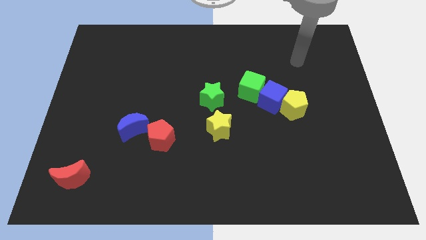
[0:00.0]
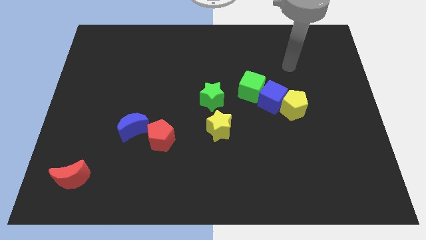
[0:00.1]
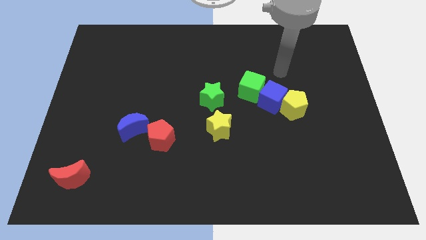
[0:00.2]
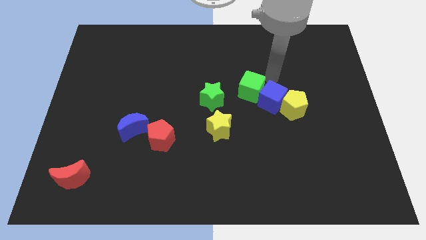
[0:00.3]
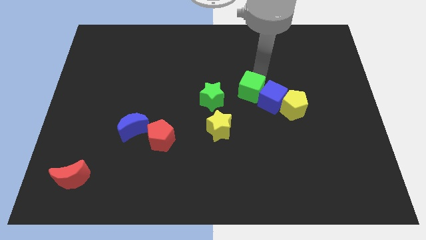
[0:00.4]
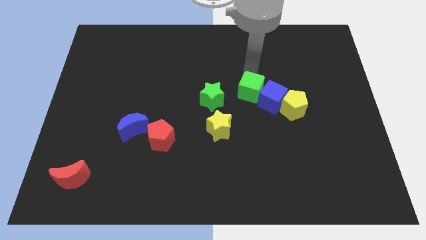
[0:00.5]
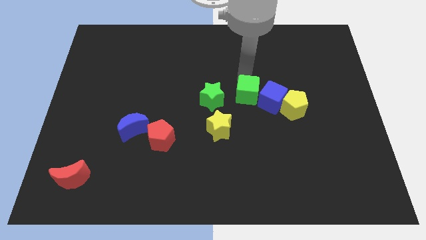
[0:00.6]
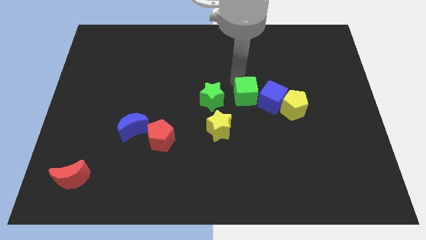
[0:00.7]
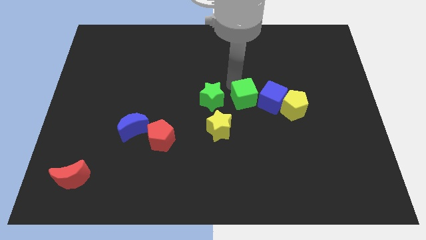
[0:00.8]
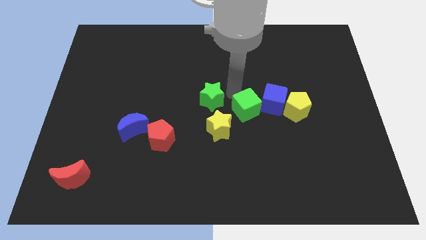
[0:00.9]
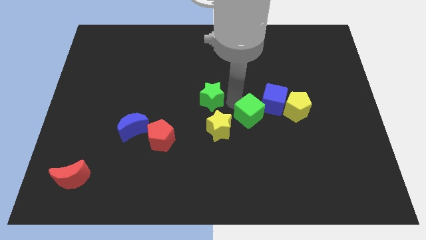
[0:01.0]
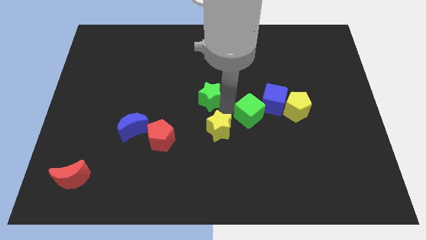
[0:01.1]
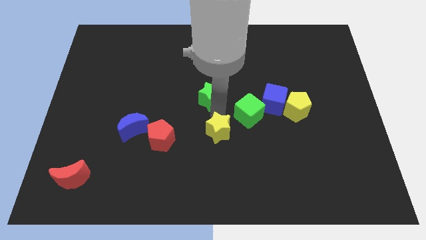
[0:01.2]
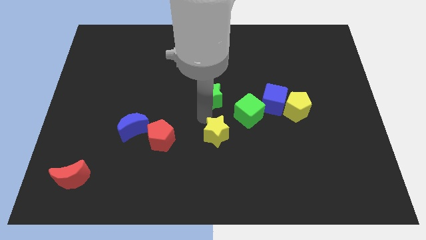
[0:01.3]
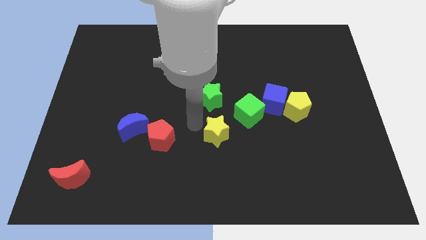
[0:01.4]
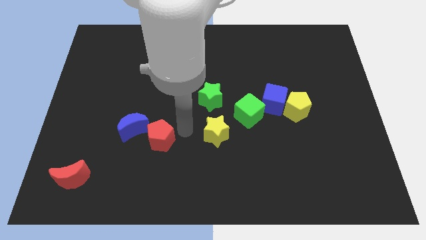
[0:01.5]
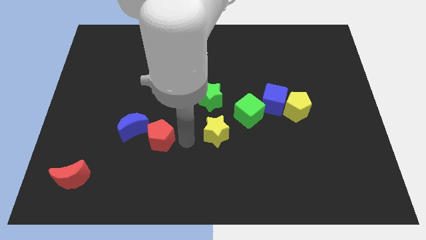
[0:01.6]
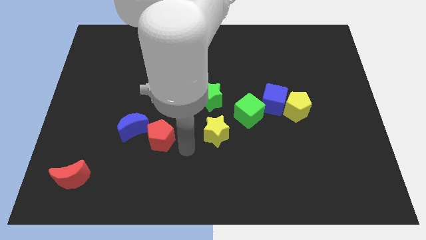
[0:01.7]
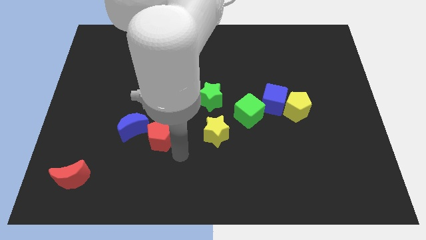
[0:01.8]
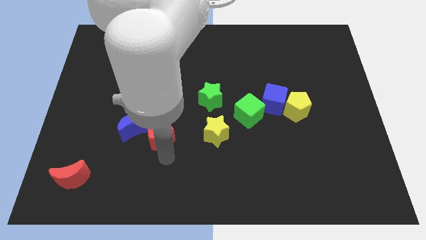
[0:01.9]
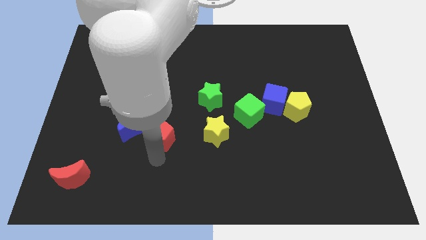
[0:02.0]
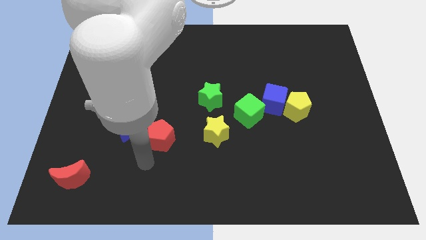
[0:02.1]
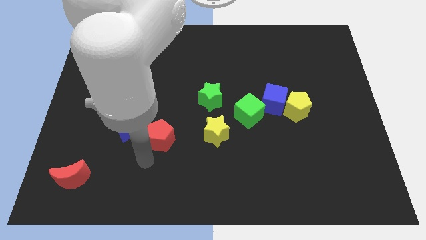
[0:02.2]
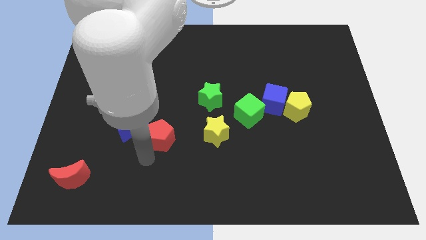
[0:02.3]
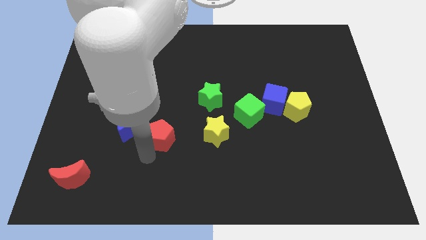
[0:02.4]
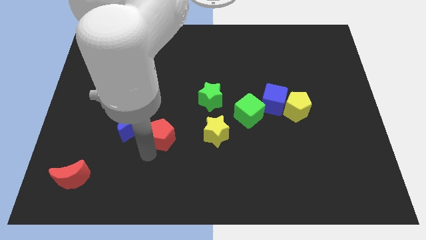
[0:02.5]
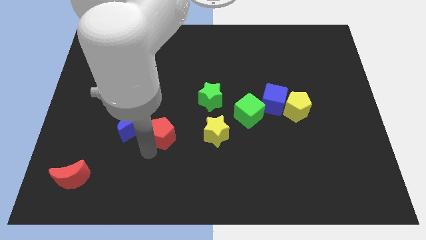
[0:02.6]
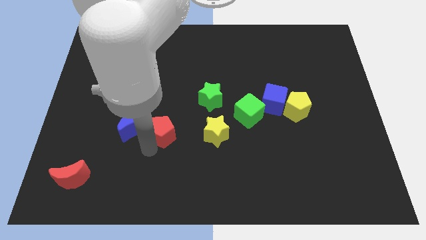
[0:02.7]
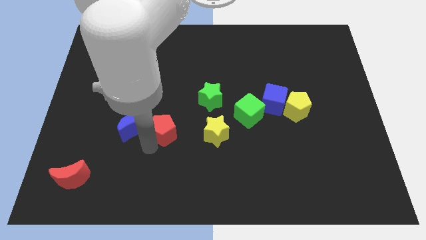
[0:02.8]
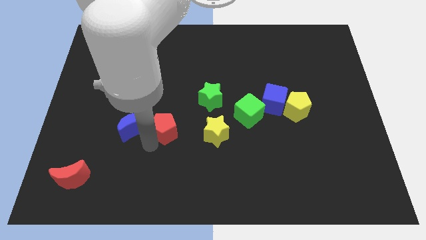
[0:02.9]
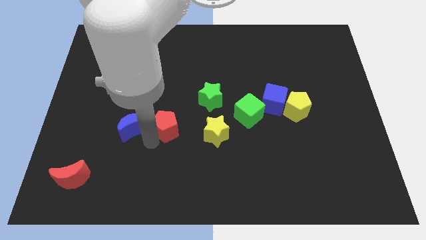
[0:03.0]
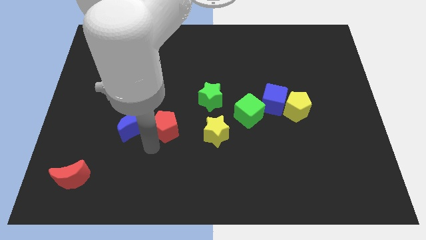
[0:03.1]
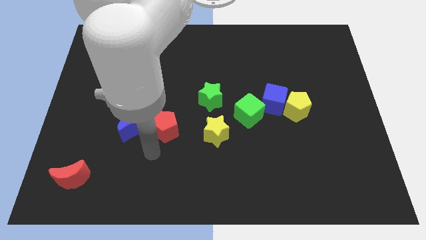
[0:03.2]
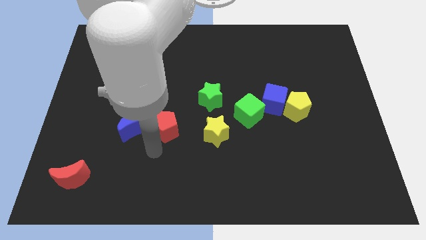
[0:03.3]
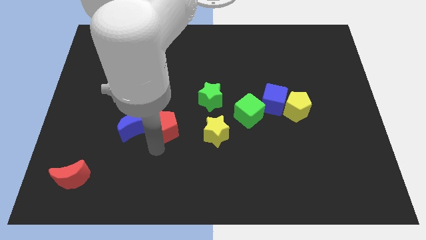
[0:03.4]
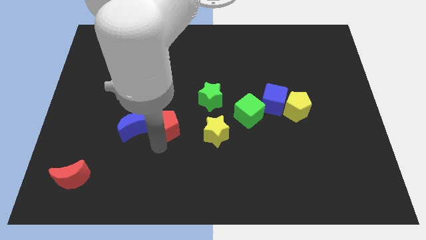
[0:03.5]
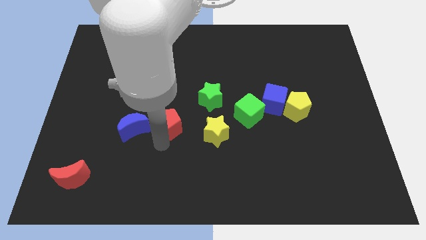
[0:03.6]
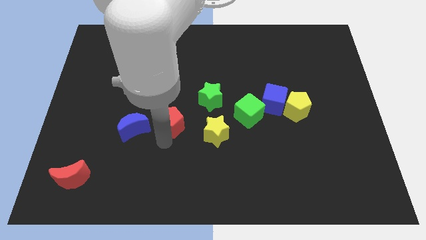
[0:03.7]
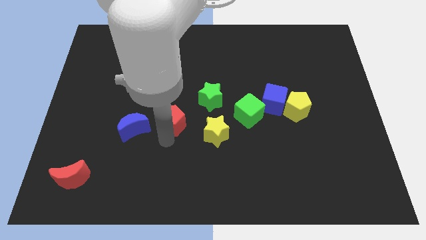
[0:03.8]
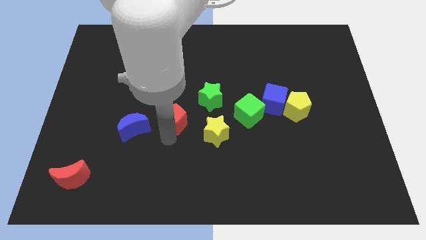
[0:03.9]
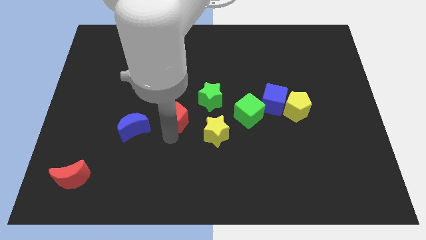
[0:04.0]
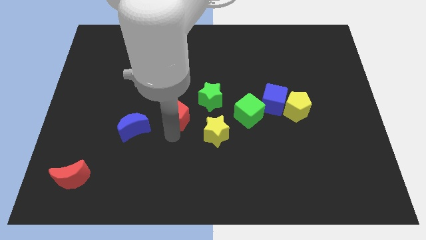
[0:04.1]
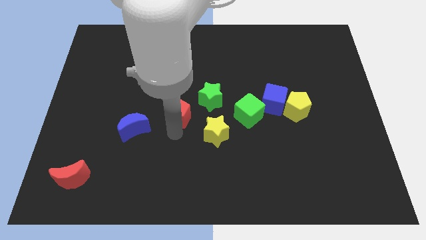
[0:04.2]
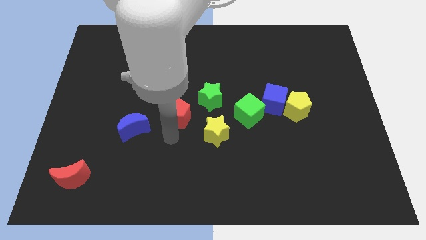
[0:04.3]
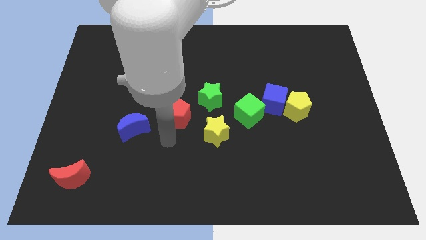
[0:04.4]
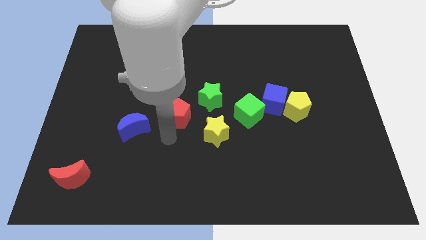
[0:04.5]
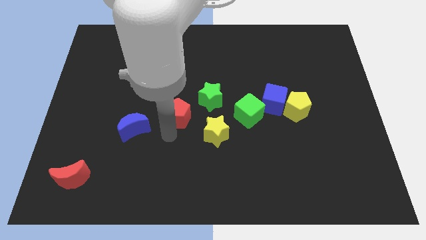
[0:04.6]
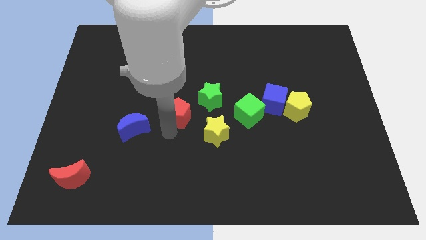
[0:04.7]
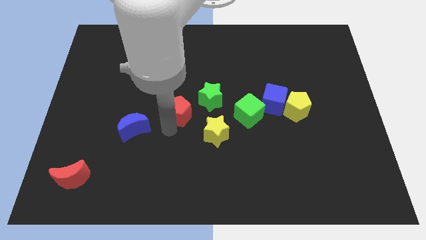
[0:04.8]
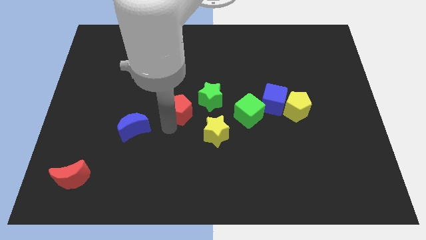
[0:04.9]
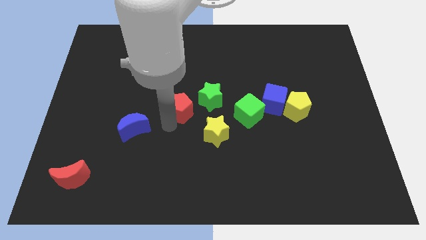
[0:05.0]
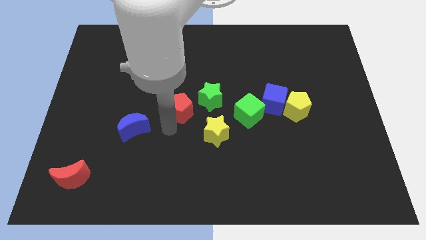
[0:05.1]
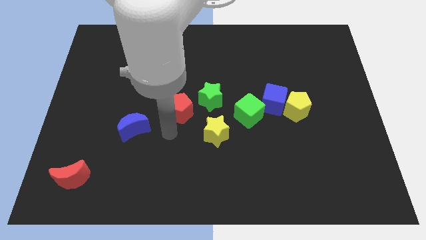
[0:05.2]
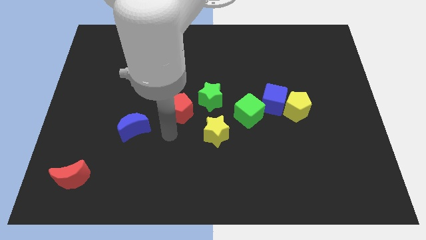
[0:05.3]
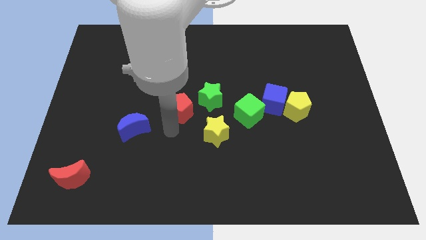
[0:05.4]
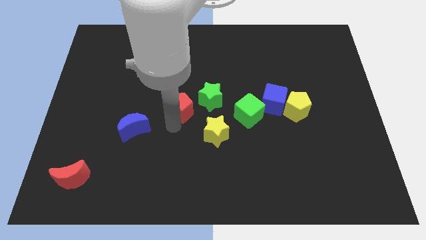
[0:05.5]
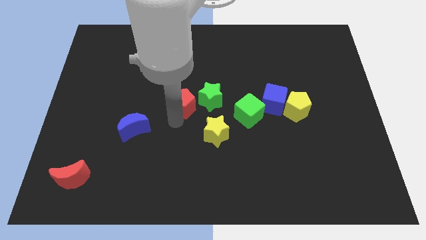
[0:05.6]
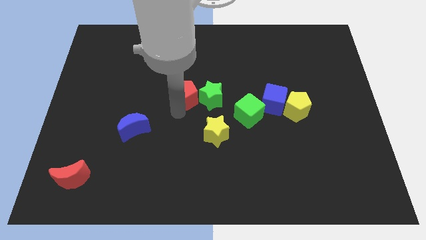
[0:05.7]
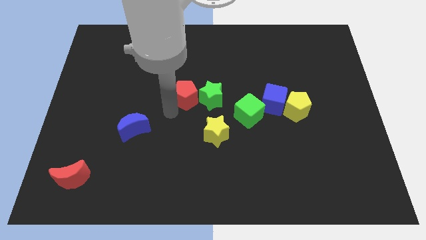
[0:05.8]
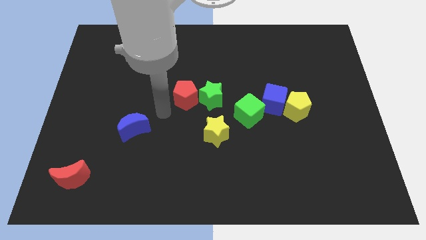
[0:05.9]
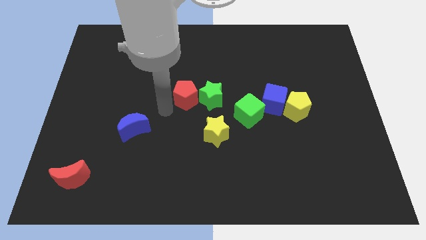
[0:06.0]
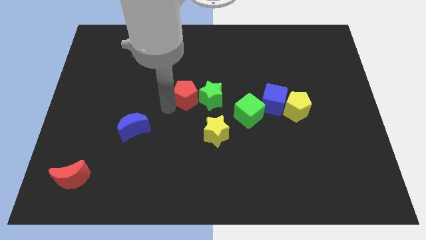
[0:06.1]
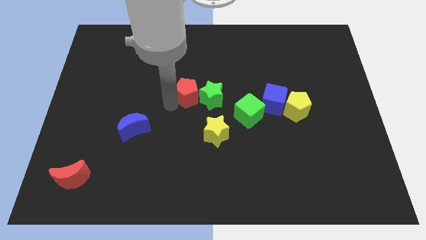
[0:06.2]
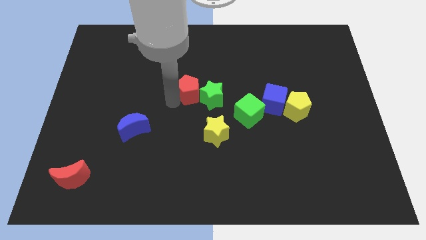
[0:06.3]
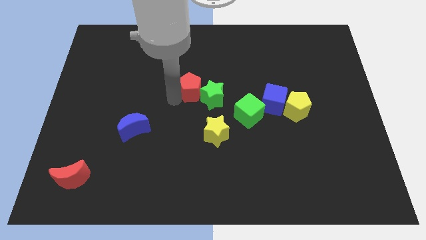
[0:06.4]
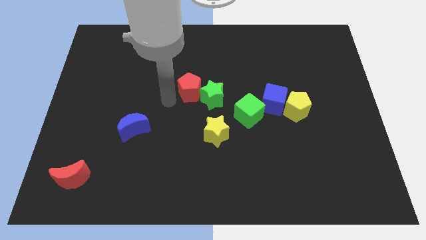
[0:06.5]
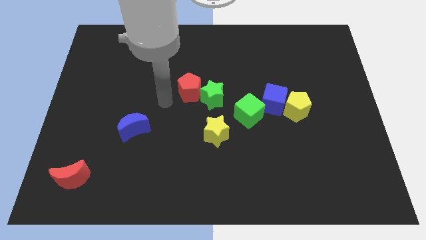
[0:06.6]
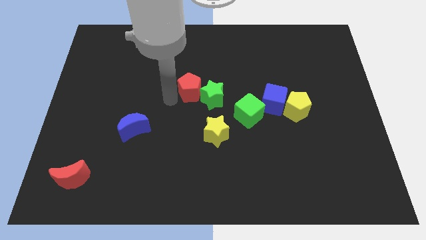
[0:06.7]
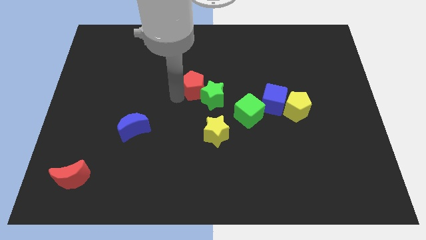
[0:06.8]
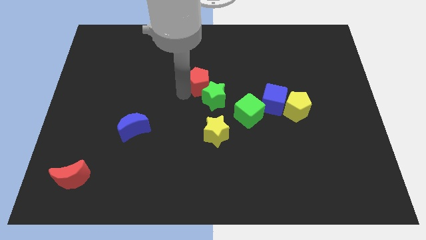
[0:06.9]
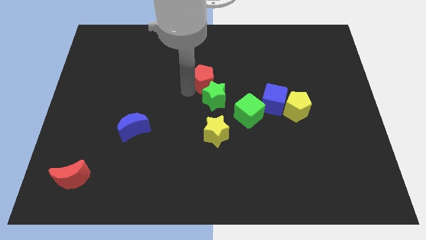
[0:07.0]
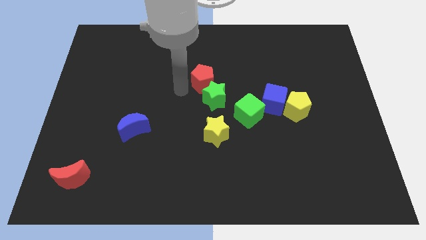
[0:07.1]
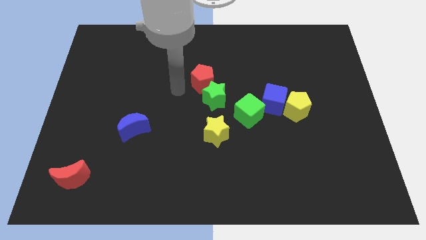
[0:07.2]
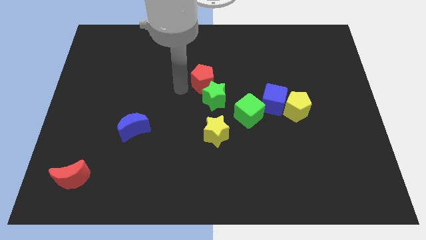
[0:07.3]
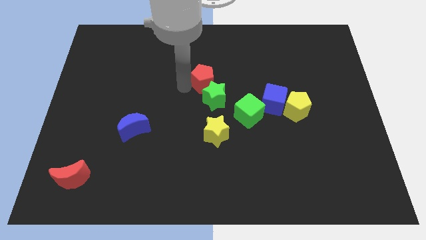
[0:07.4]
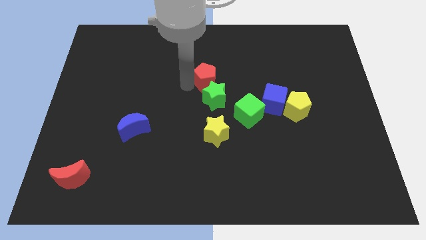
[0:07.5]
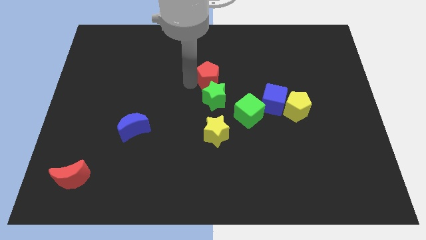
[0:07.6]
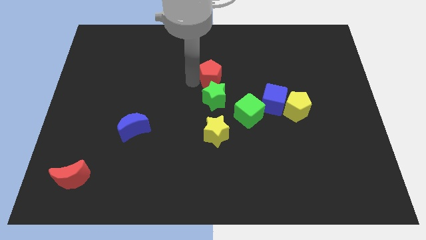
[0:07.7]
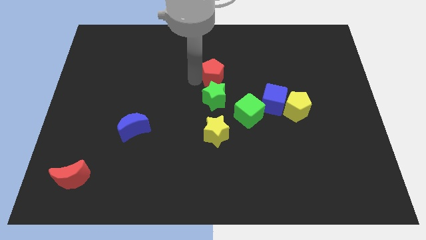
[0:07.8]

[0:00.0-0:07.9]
push the red pentagon upwards and right diagonally
